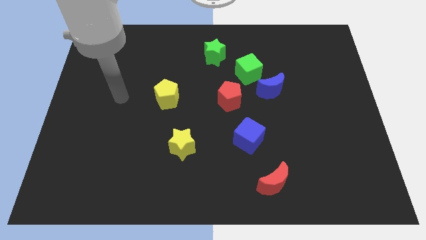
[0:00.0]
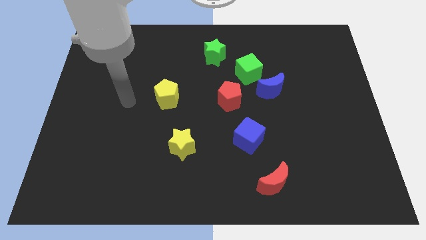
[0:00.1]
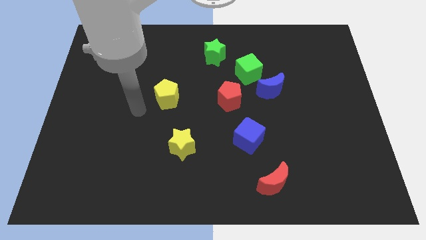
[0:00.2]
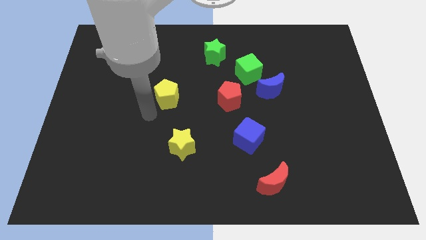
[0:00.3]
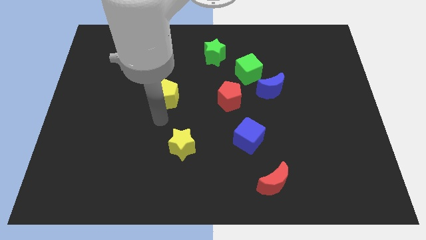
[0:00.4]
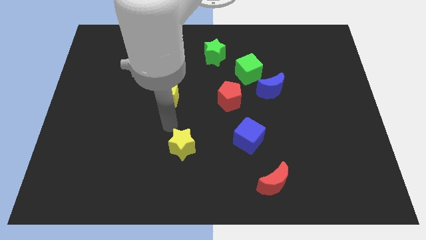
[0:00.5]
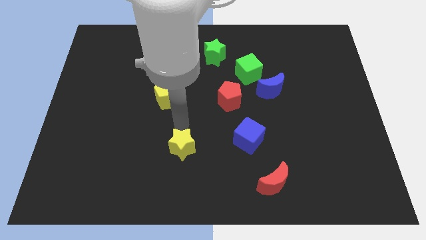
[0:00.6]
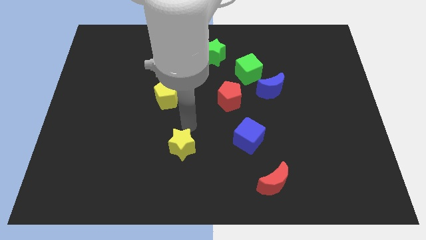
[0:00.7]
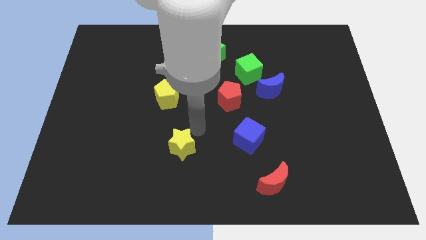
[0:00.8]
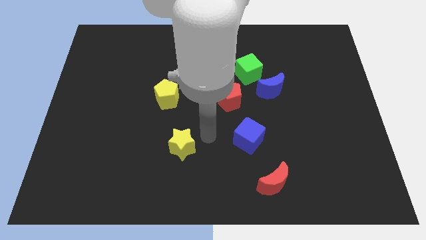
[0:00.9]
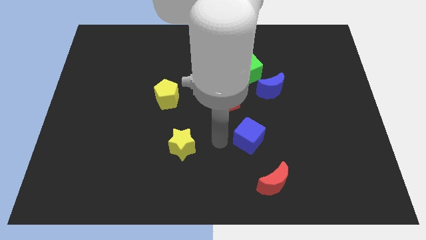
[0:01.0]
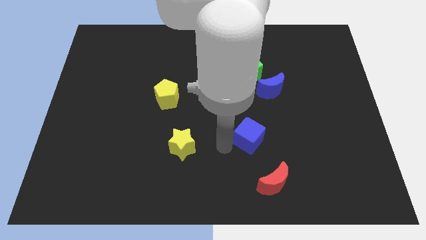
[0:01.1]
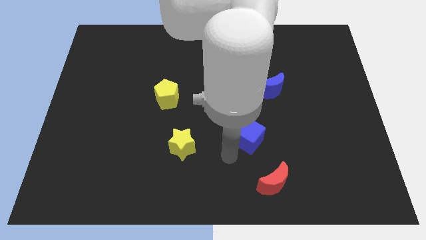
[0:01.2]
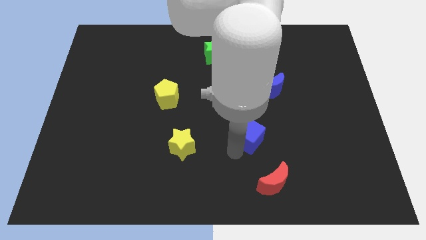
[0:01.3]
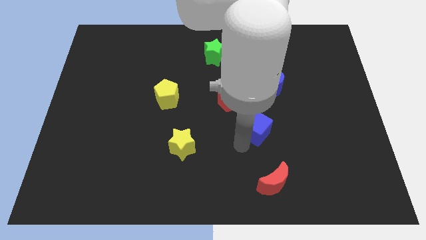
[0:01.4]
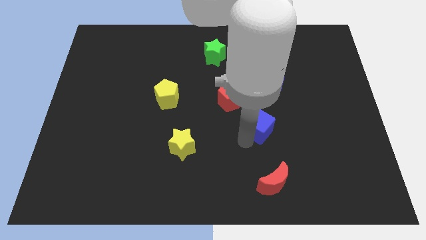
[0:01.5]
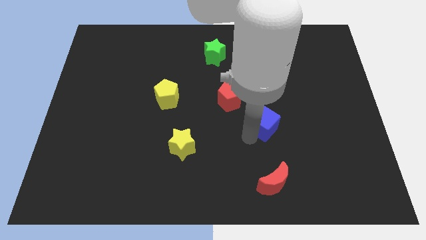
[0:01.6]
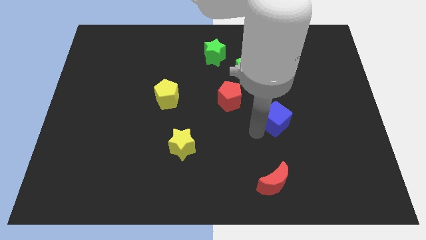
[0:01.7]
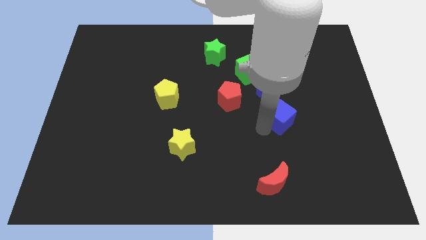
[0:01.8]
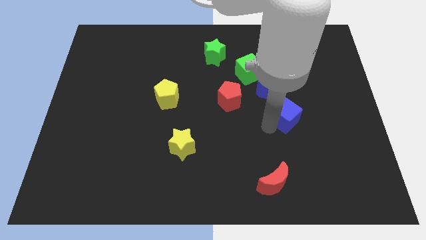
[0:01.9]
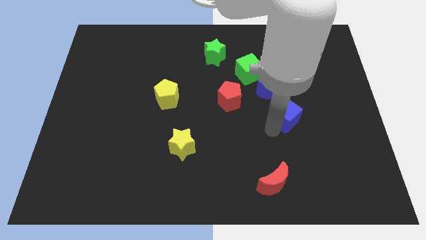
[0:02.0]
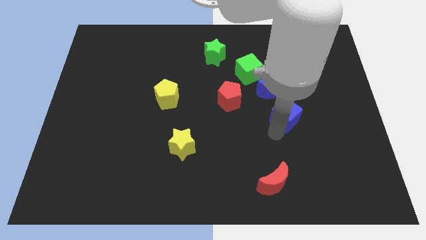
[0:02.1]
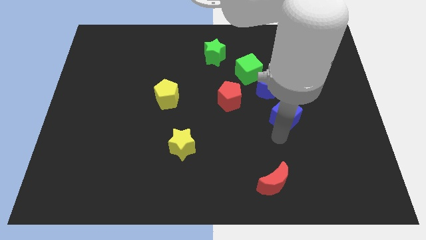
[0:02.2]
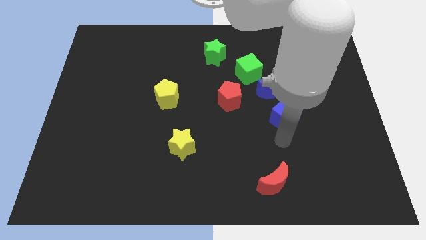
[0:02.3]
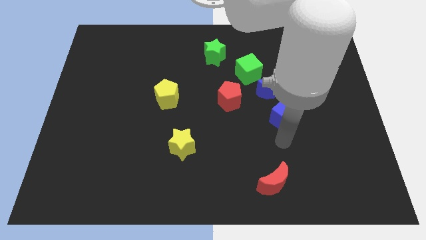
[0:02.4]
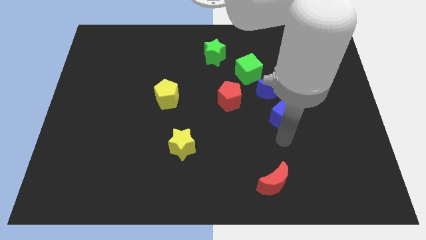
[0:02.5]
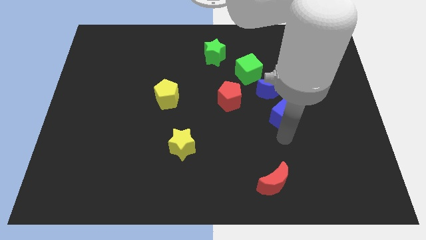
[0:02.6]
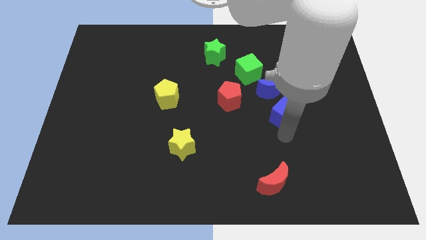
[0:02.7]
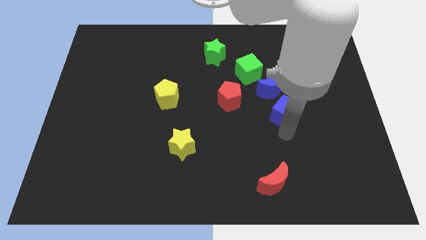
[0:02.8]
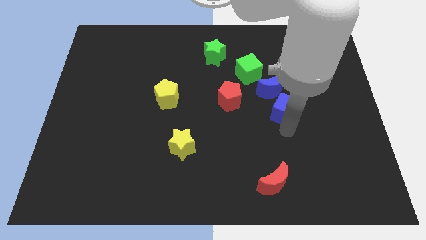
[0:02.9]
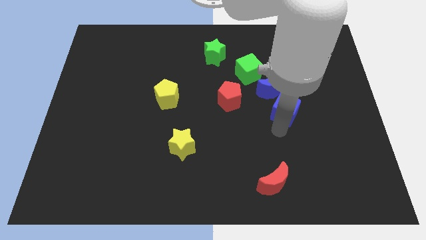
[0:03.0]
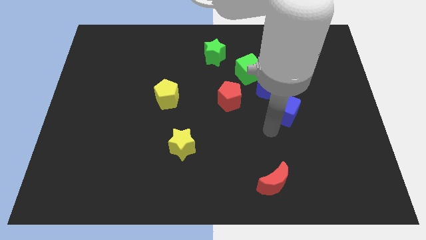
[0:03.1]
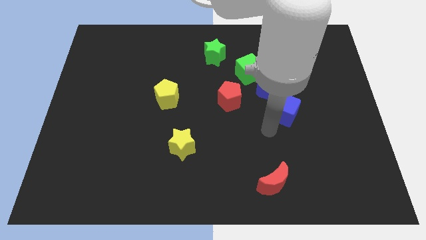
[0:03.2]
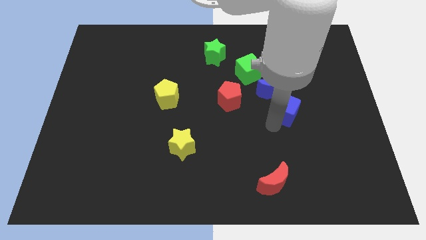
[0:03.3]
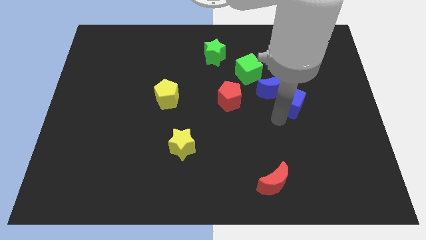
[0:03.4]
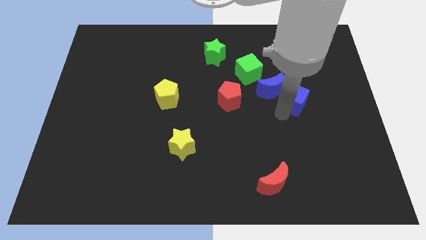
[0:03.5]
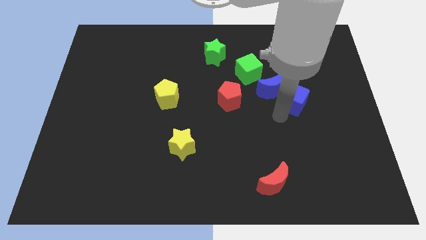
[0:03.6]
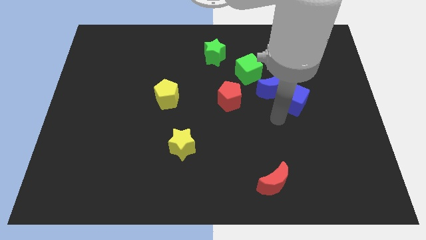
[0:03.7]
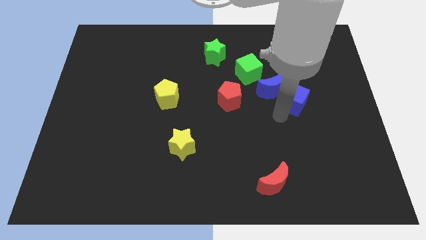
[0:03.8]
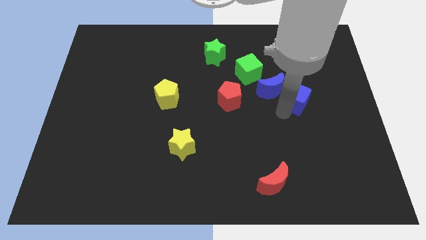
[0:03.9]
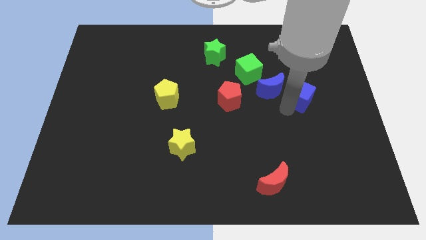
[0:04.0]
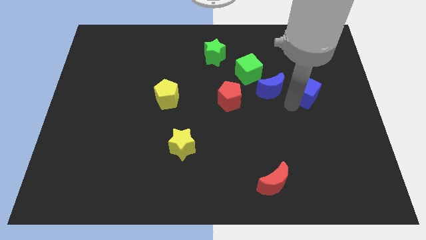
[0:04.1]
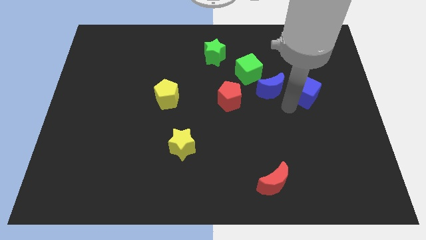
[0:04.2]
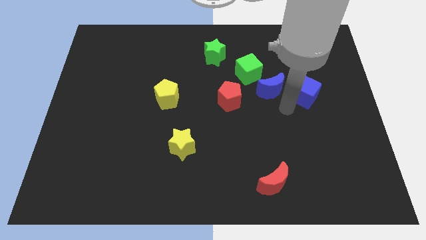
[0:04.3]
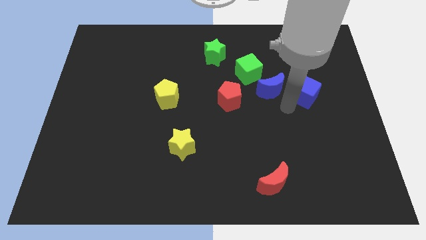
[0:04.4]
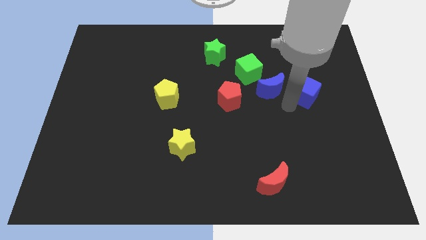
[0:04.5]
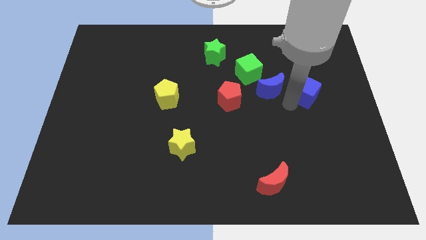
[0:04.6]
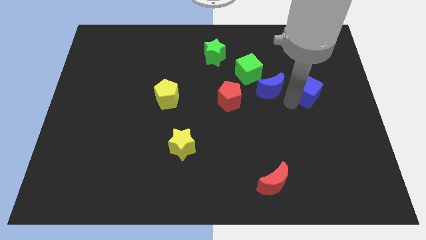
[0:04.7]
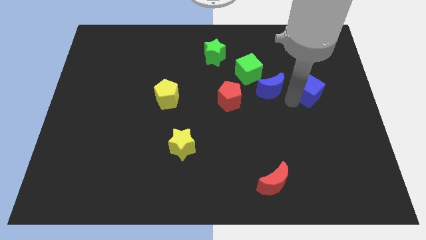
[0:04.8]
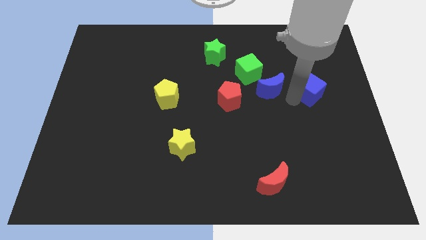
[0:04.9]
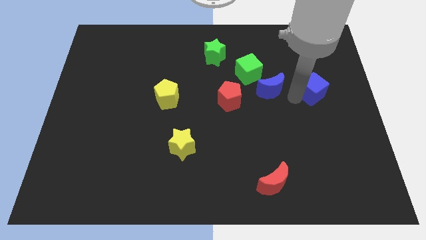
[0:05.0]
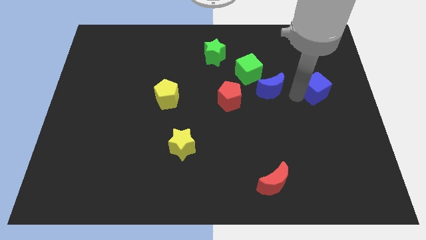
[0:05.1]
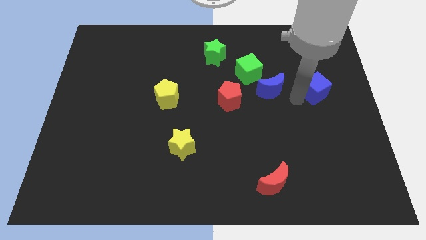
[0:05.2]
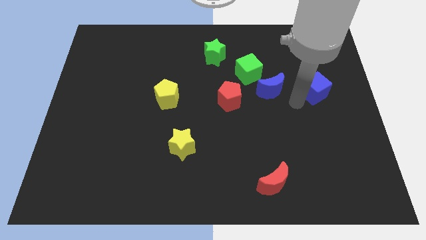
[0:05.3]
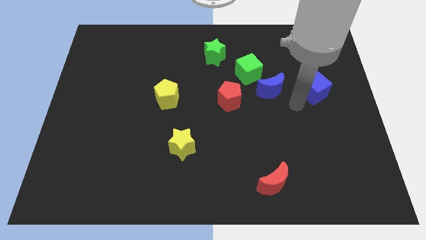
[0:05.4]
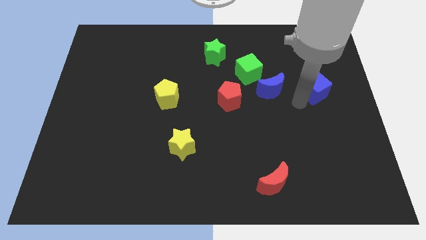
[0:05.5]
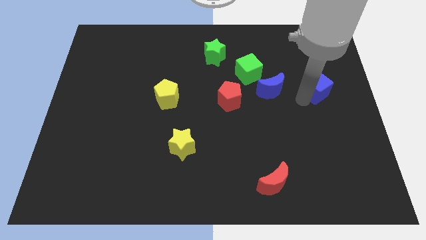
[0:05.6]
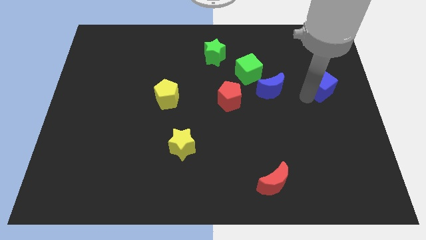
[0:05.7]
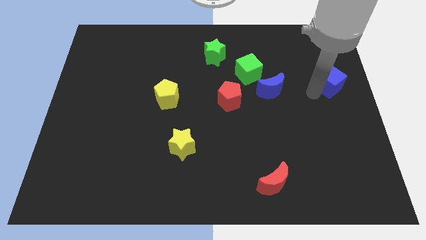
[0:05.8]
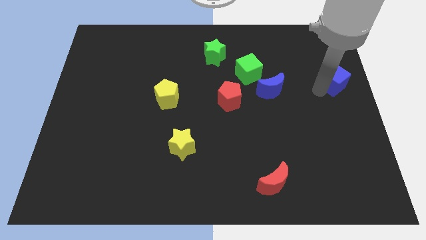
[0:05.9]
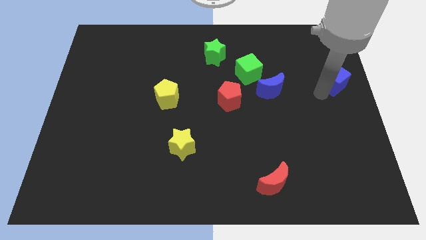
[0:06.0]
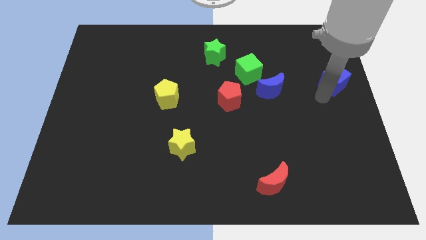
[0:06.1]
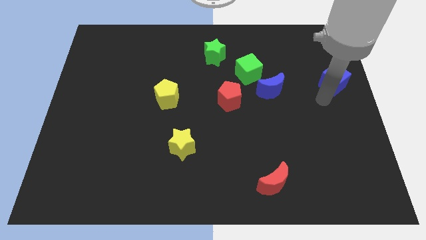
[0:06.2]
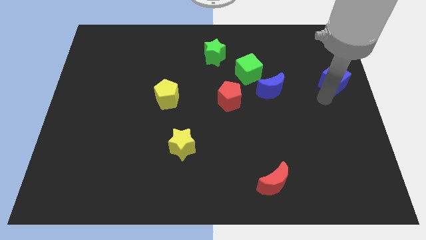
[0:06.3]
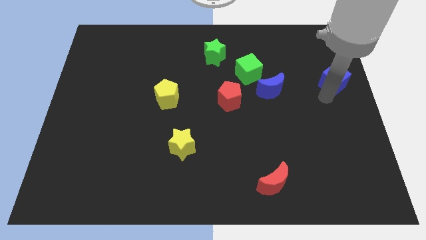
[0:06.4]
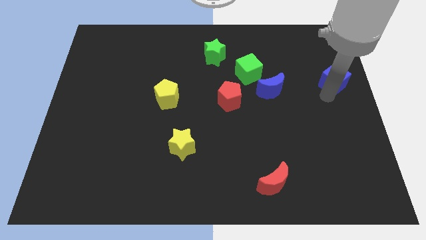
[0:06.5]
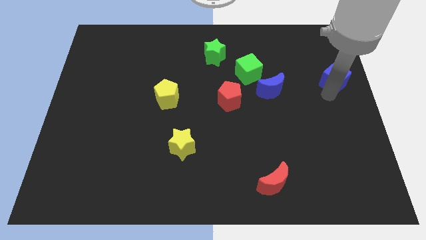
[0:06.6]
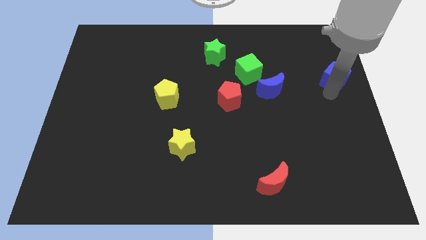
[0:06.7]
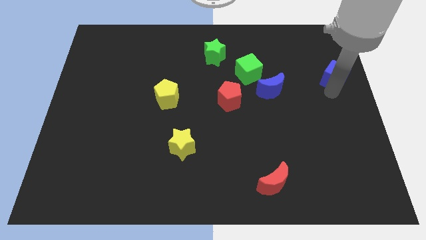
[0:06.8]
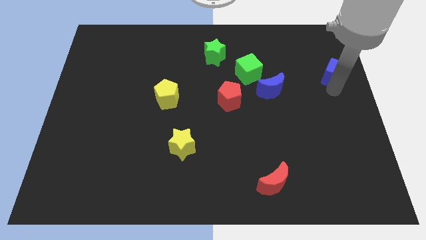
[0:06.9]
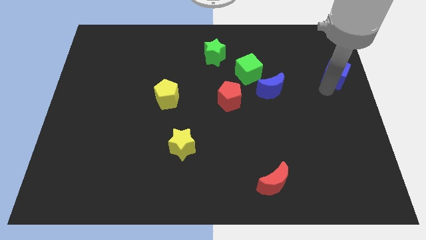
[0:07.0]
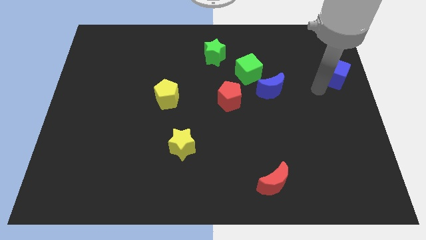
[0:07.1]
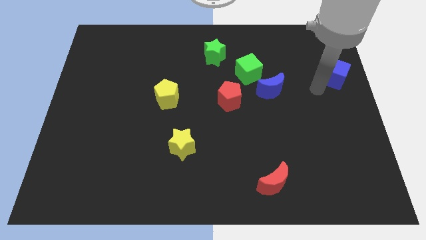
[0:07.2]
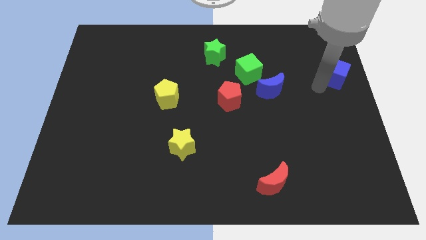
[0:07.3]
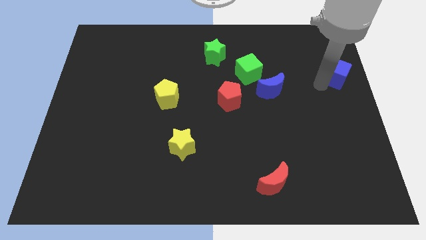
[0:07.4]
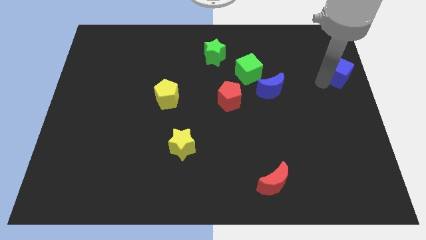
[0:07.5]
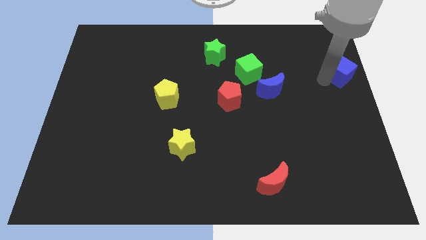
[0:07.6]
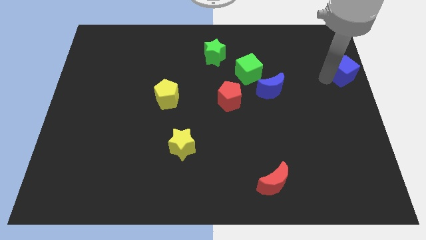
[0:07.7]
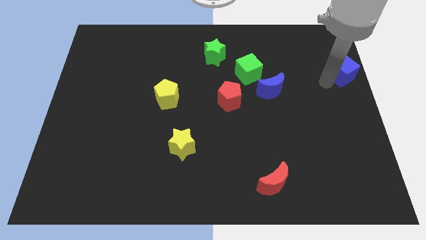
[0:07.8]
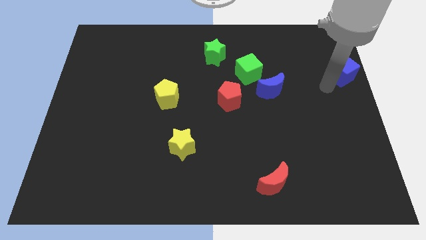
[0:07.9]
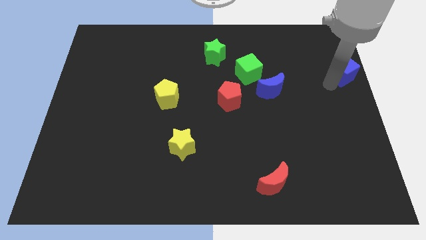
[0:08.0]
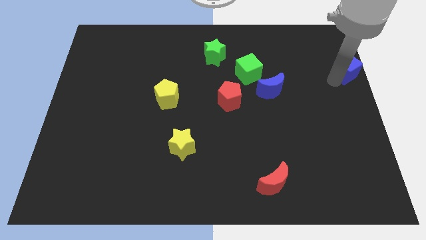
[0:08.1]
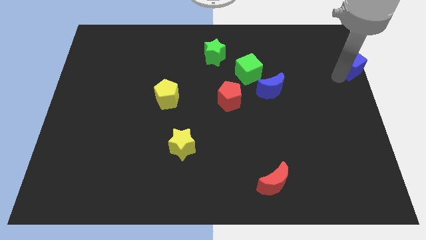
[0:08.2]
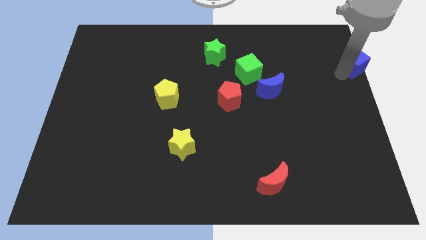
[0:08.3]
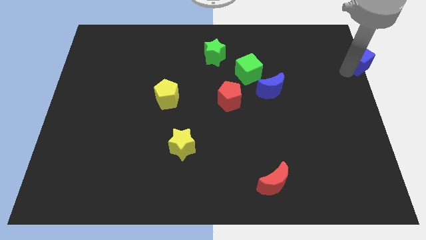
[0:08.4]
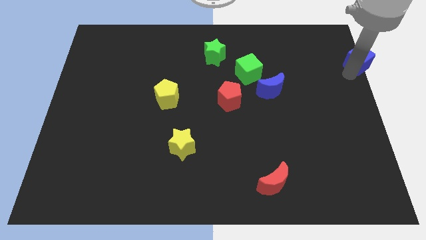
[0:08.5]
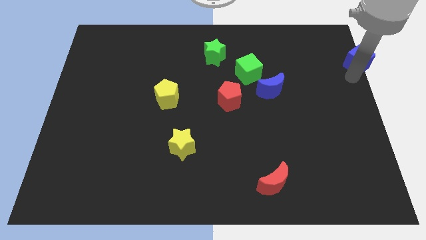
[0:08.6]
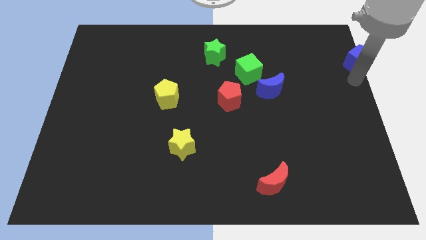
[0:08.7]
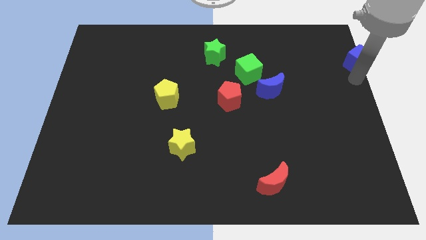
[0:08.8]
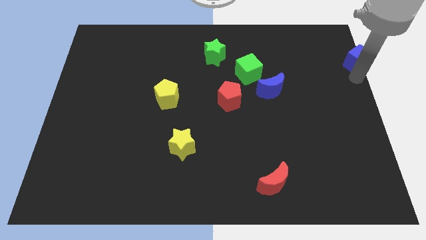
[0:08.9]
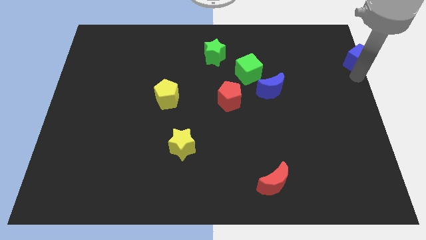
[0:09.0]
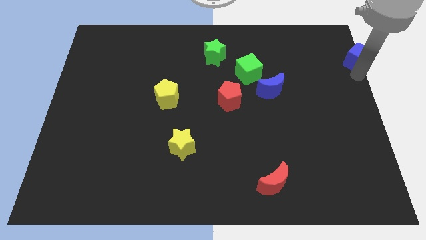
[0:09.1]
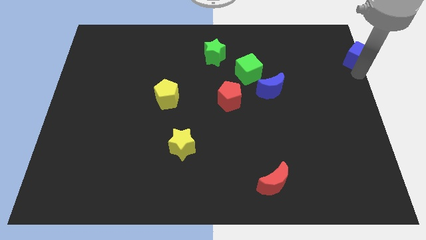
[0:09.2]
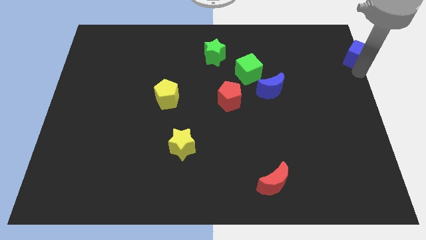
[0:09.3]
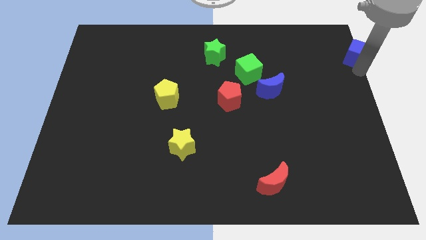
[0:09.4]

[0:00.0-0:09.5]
slide the blue cube to the upper right corner
